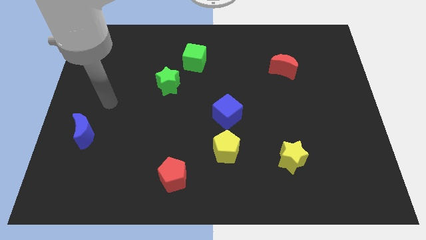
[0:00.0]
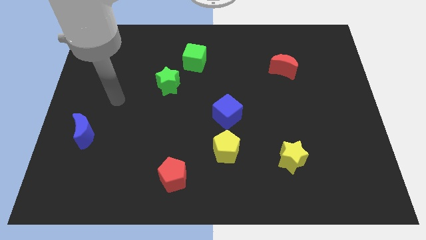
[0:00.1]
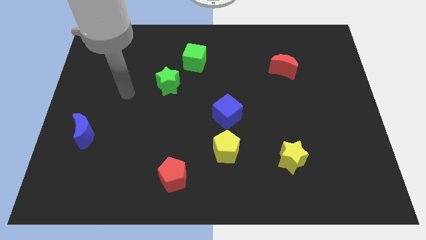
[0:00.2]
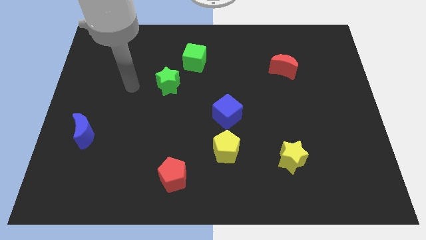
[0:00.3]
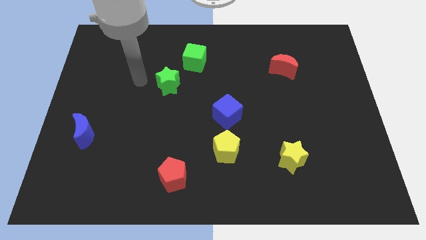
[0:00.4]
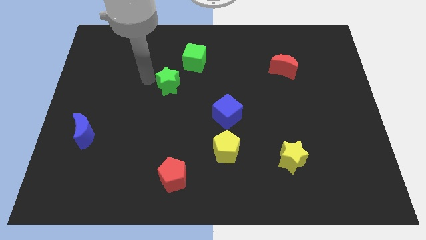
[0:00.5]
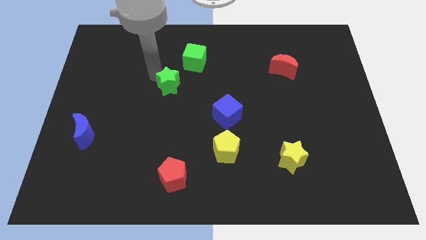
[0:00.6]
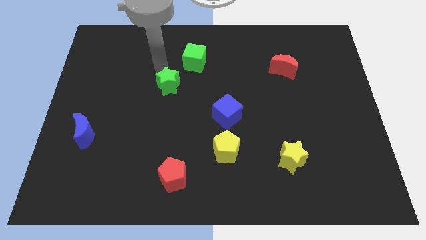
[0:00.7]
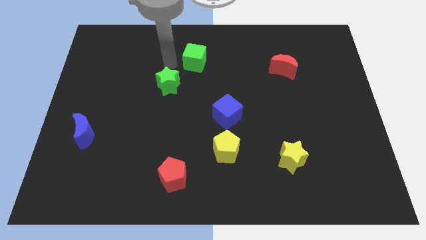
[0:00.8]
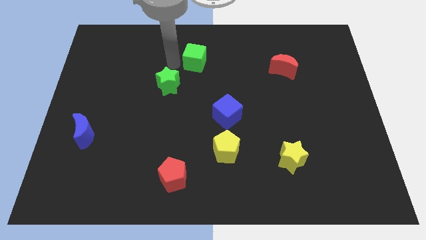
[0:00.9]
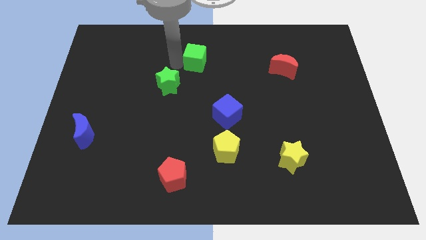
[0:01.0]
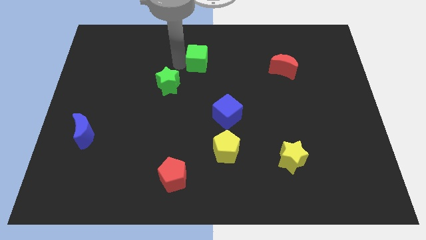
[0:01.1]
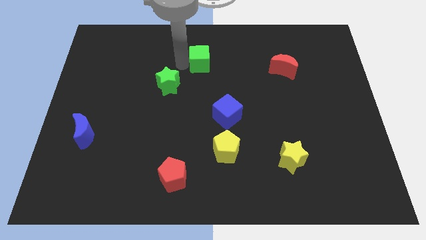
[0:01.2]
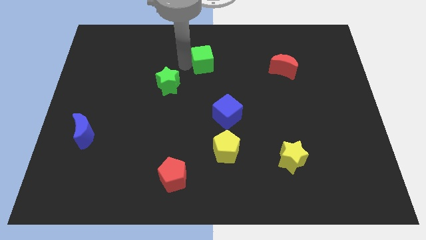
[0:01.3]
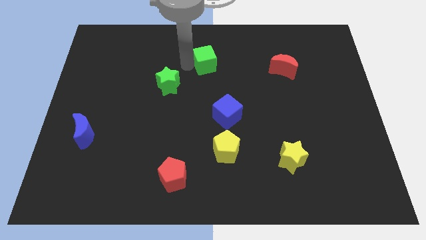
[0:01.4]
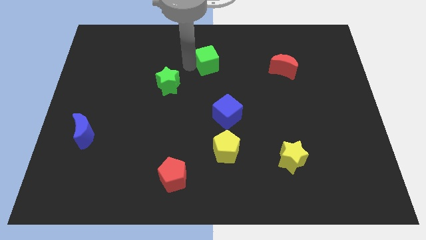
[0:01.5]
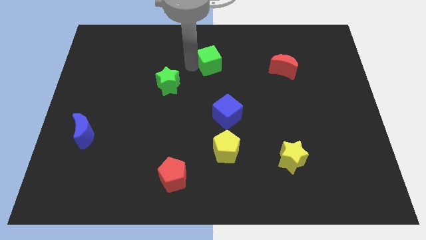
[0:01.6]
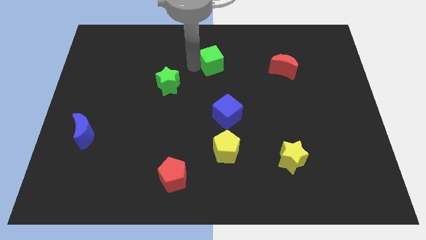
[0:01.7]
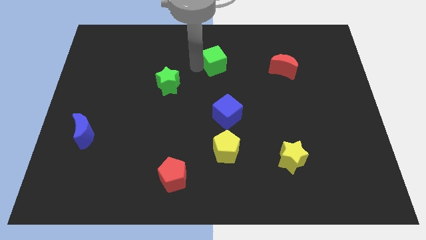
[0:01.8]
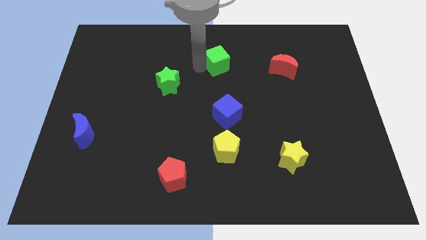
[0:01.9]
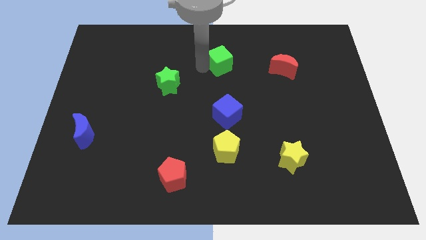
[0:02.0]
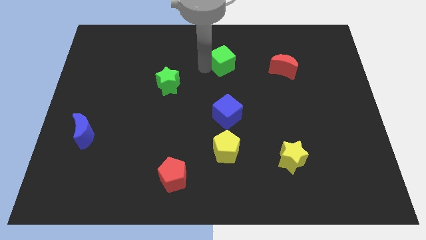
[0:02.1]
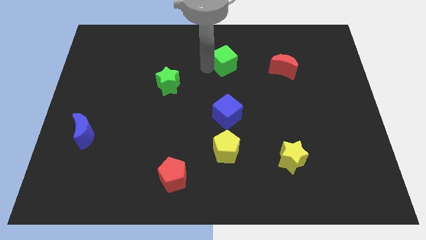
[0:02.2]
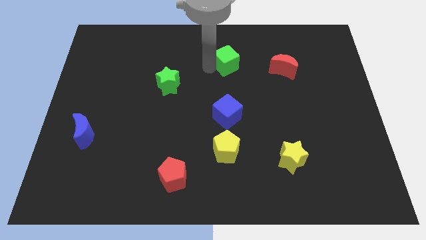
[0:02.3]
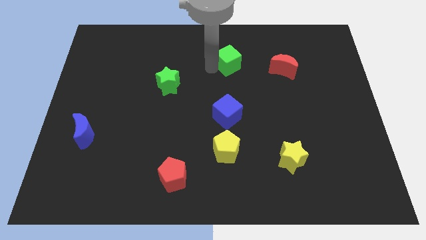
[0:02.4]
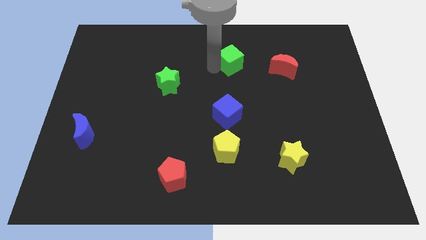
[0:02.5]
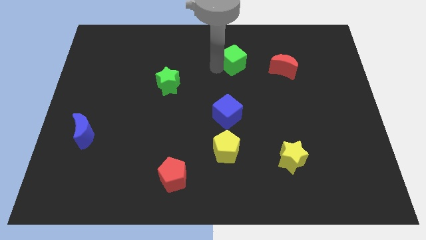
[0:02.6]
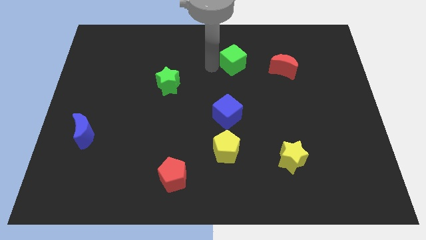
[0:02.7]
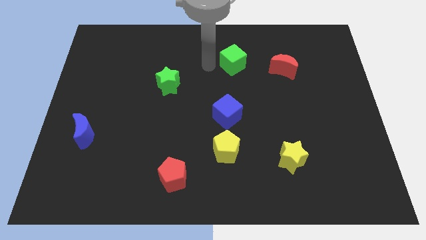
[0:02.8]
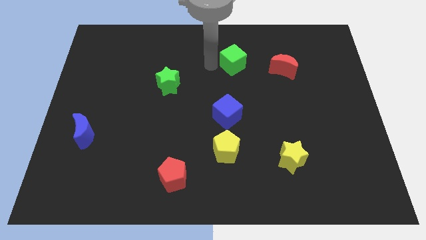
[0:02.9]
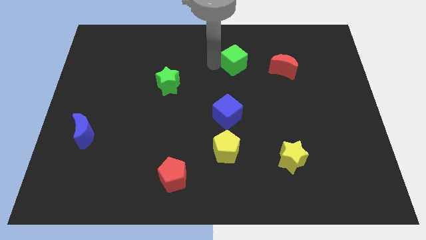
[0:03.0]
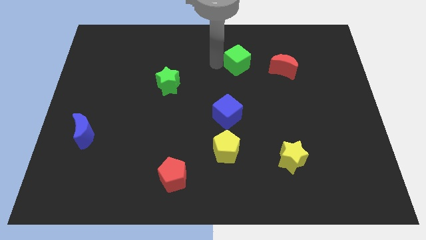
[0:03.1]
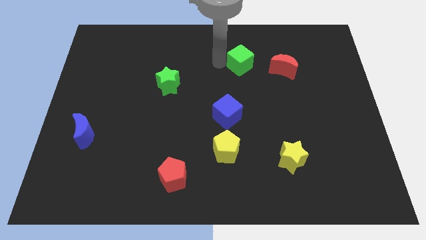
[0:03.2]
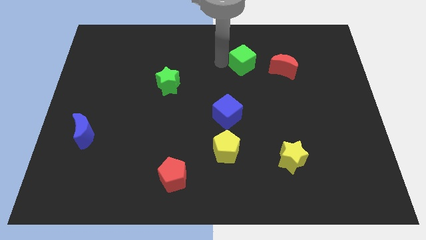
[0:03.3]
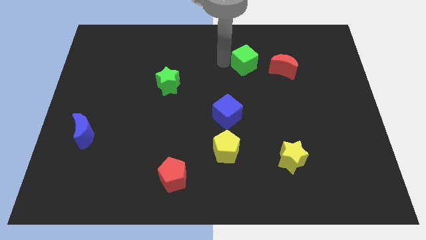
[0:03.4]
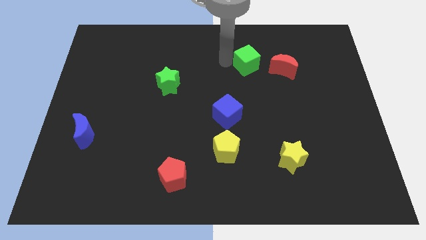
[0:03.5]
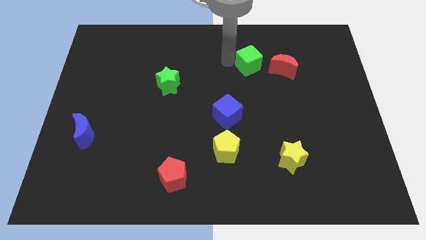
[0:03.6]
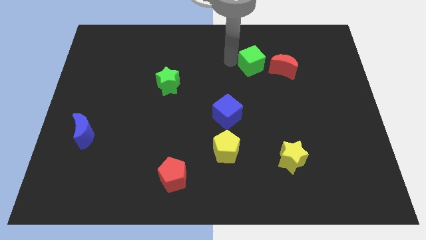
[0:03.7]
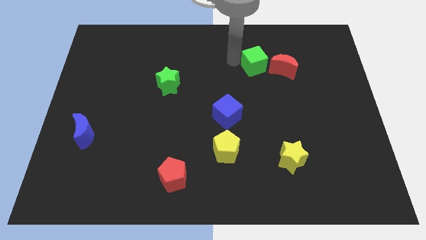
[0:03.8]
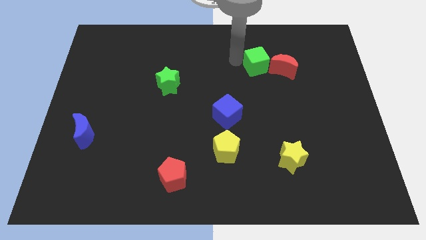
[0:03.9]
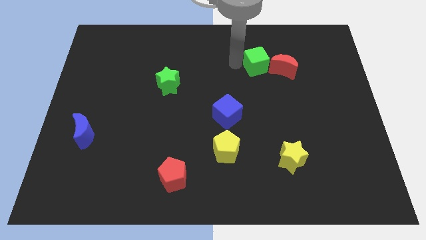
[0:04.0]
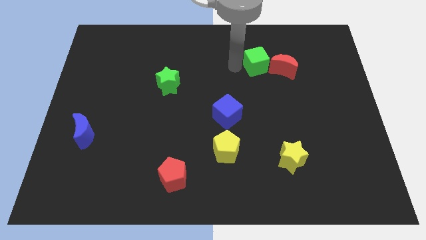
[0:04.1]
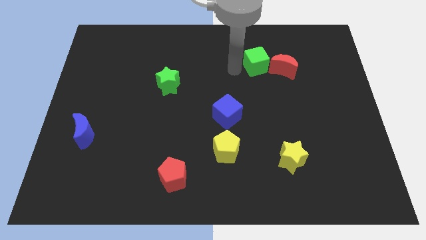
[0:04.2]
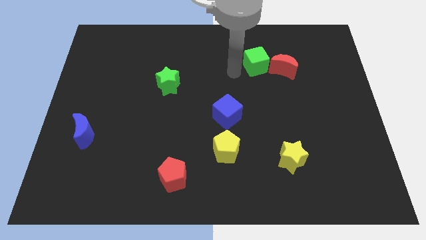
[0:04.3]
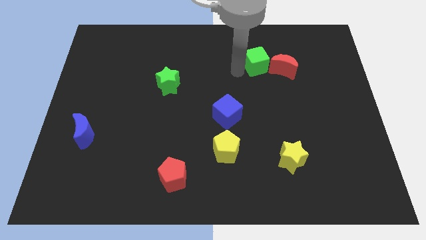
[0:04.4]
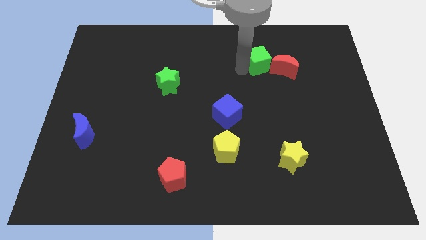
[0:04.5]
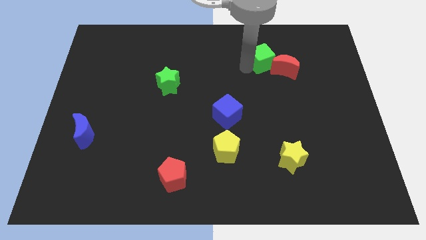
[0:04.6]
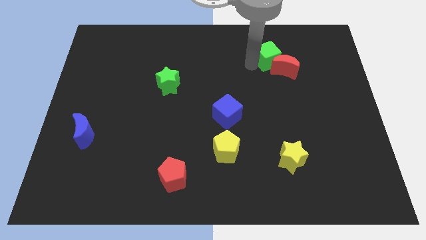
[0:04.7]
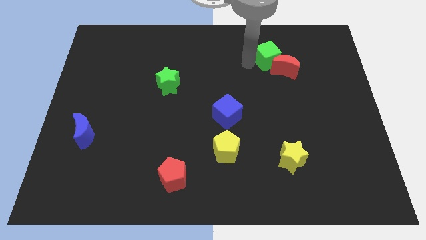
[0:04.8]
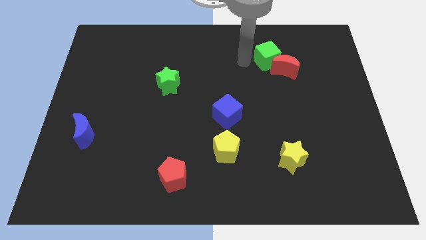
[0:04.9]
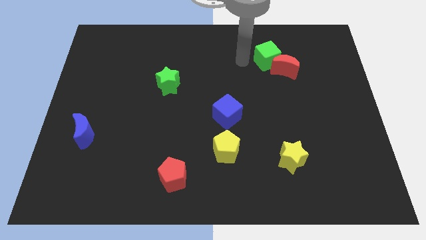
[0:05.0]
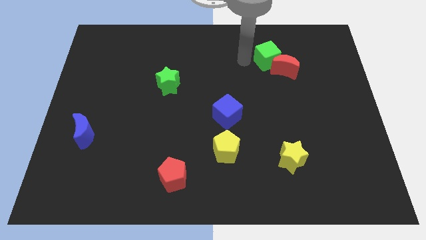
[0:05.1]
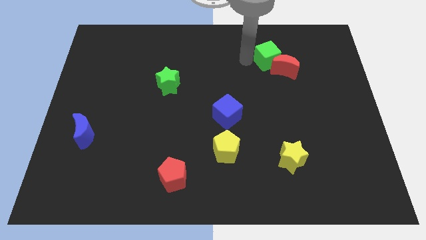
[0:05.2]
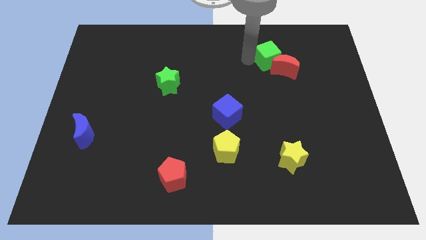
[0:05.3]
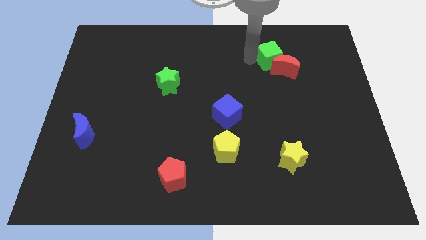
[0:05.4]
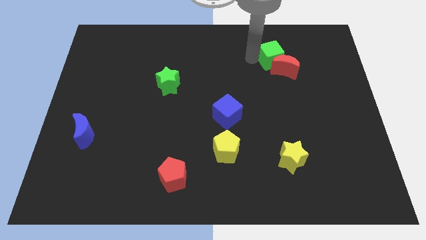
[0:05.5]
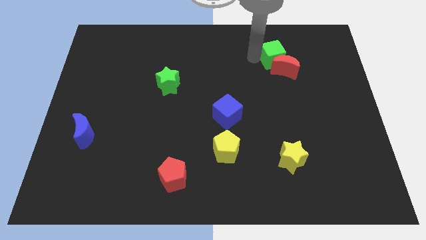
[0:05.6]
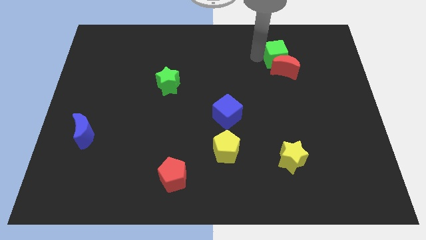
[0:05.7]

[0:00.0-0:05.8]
put the green cube to the top right side of the red moon

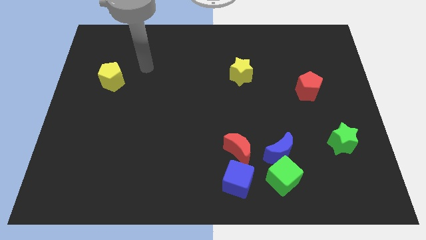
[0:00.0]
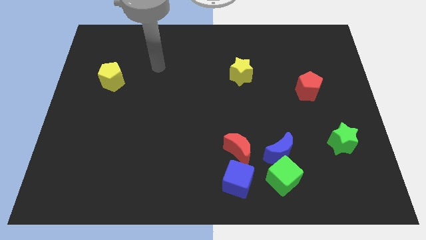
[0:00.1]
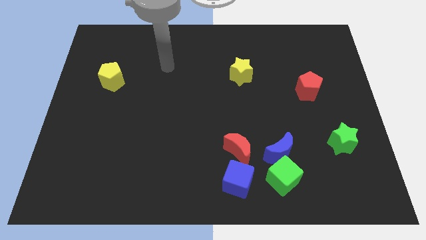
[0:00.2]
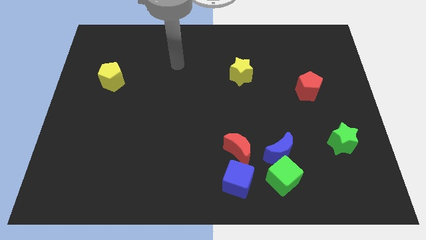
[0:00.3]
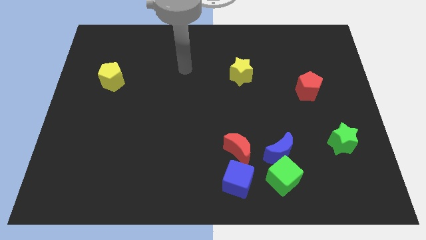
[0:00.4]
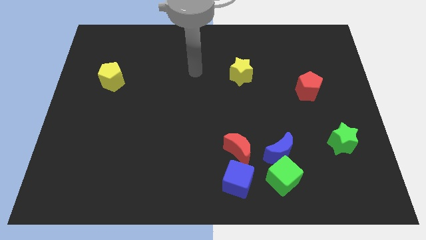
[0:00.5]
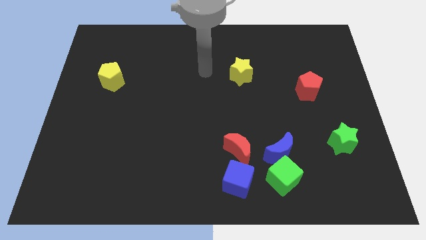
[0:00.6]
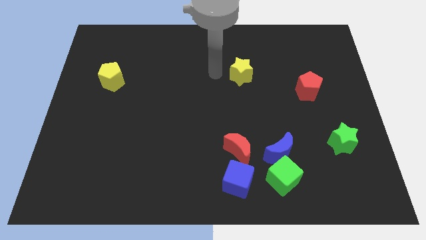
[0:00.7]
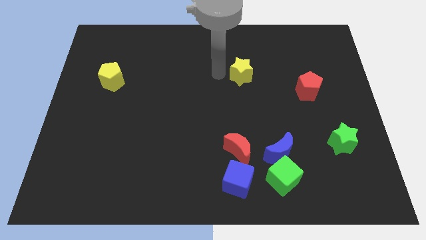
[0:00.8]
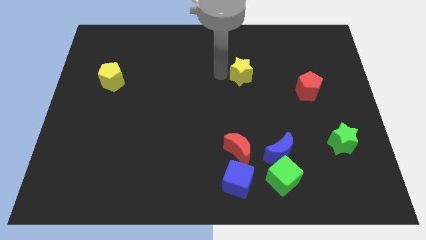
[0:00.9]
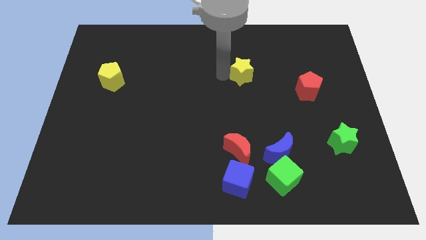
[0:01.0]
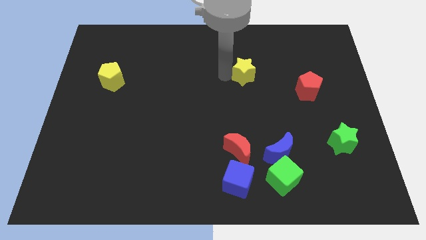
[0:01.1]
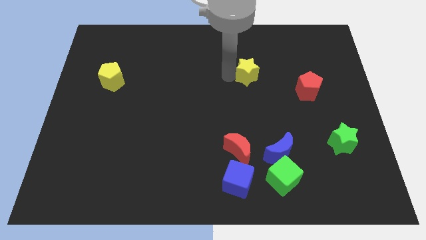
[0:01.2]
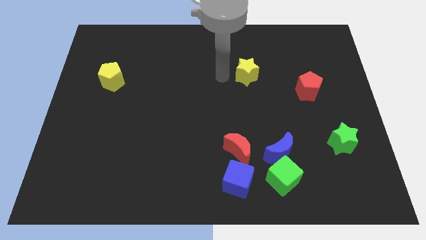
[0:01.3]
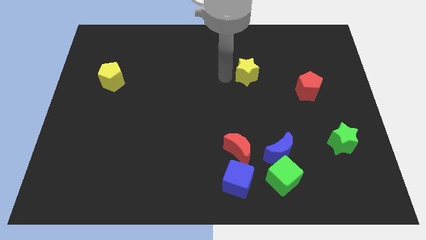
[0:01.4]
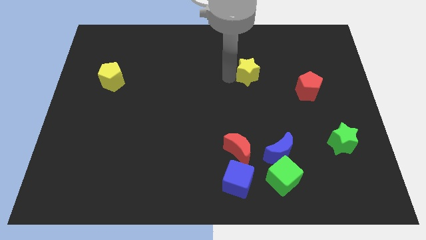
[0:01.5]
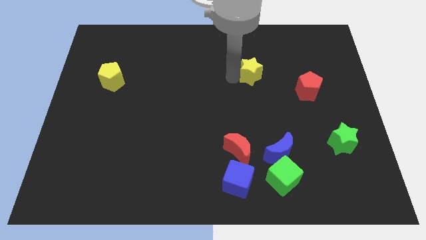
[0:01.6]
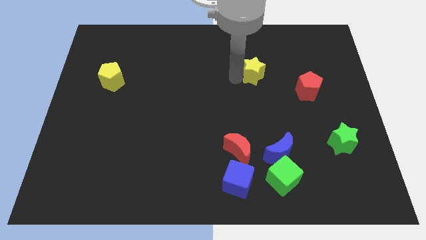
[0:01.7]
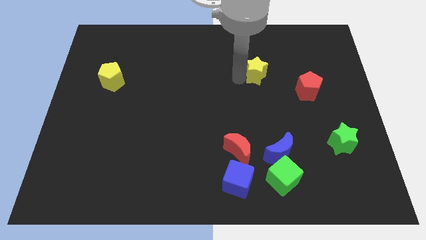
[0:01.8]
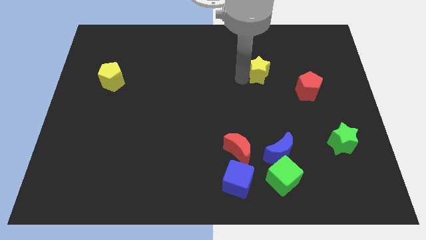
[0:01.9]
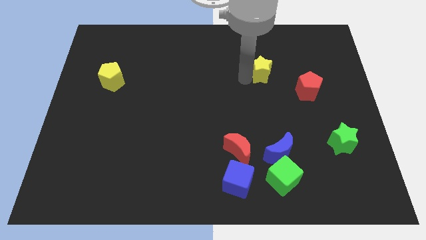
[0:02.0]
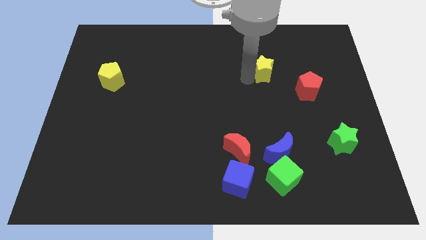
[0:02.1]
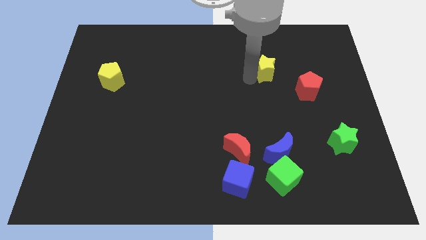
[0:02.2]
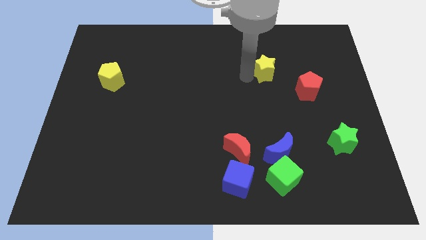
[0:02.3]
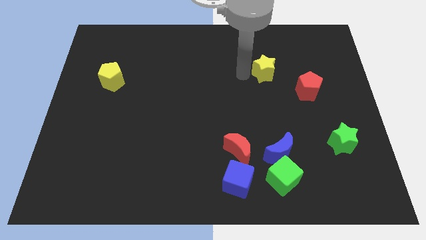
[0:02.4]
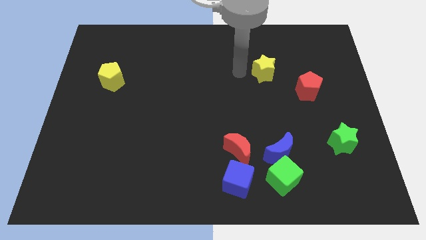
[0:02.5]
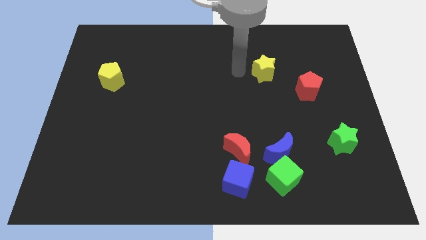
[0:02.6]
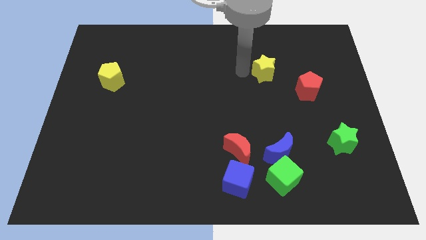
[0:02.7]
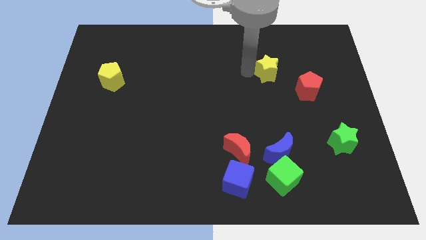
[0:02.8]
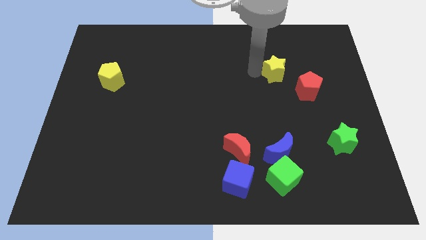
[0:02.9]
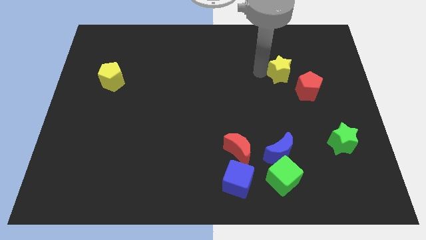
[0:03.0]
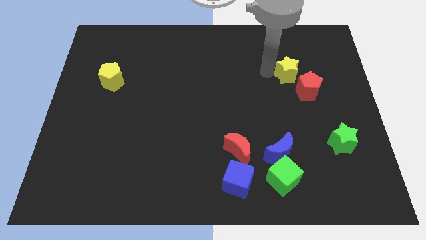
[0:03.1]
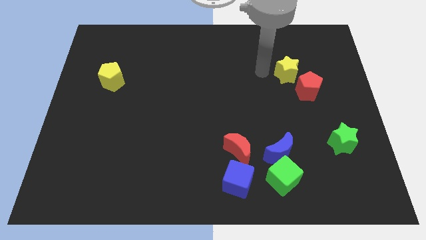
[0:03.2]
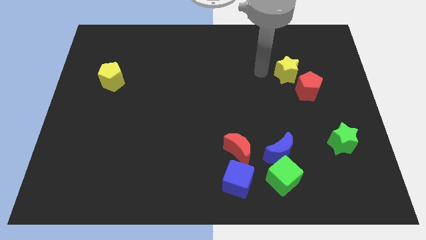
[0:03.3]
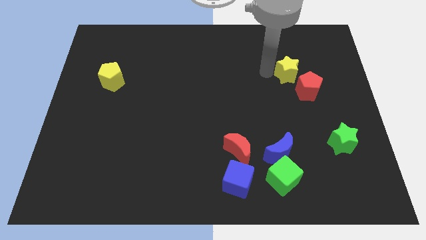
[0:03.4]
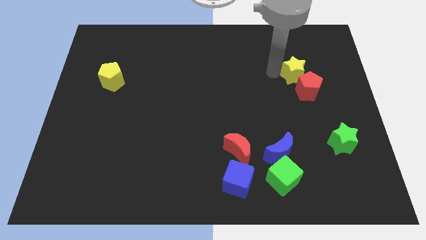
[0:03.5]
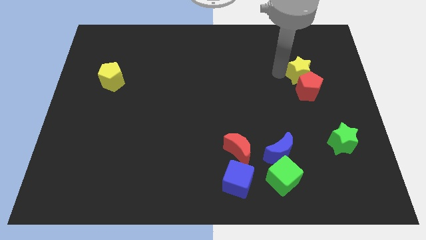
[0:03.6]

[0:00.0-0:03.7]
slide the yellow star to the top right side of the red pentagon
